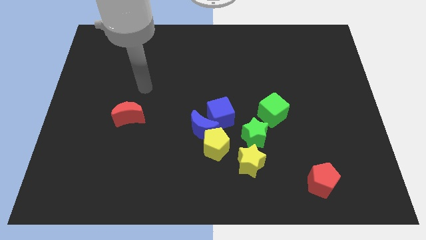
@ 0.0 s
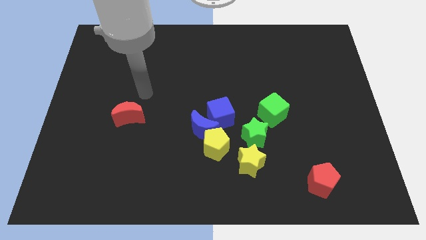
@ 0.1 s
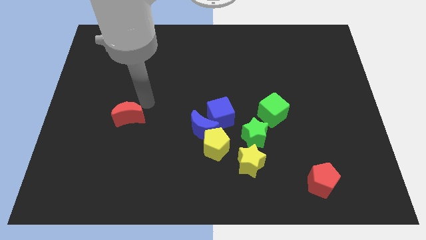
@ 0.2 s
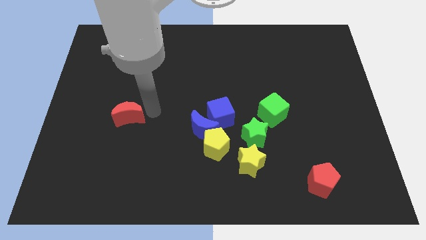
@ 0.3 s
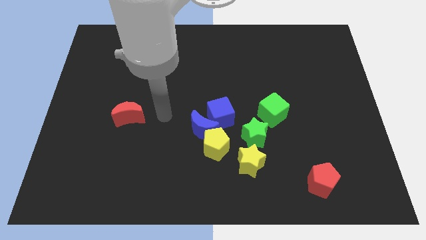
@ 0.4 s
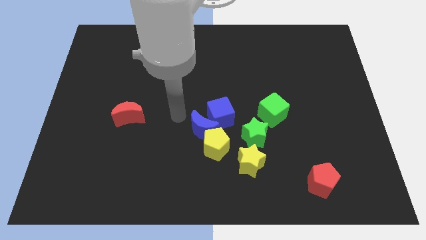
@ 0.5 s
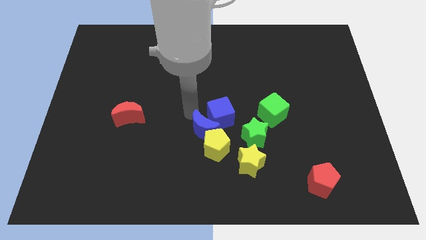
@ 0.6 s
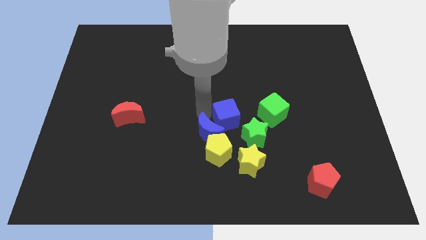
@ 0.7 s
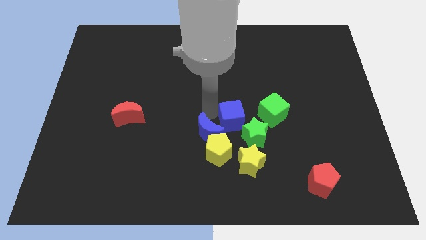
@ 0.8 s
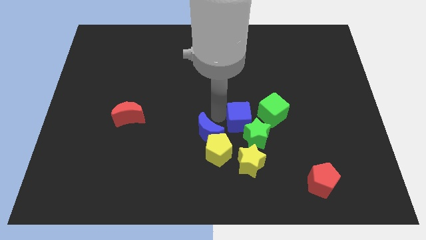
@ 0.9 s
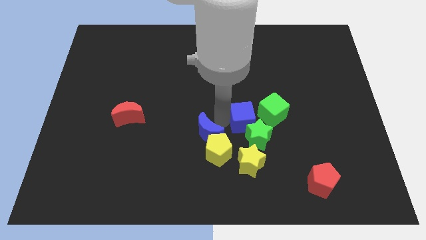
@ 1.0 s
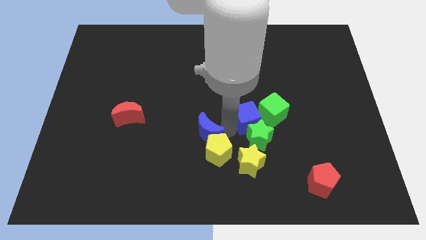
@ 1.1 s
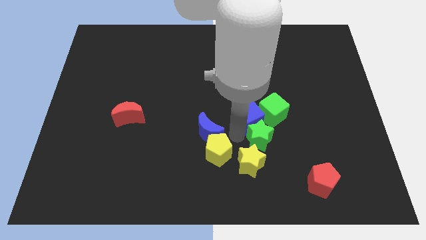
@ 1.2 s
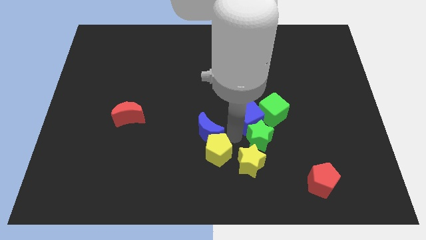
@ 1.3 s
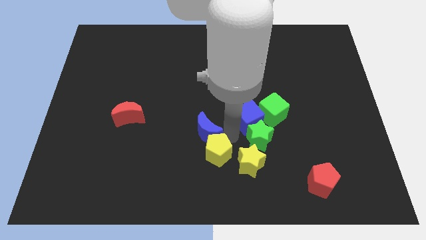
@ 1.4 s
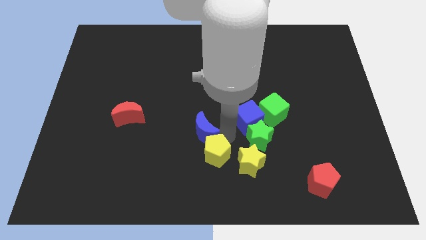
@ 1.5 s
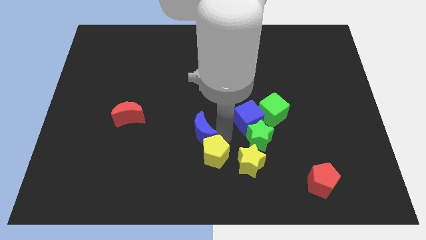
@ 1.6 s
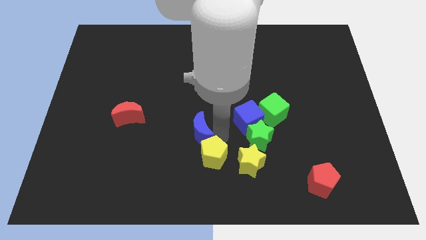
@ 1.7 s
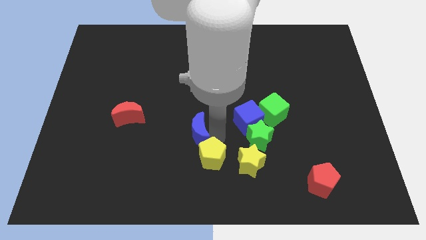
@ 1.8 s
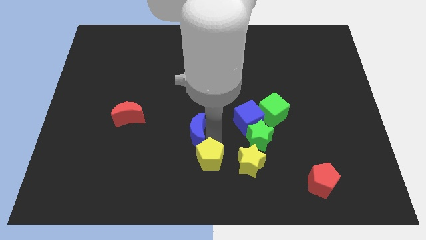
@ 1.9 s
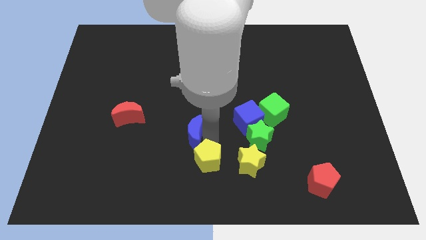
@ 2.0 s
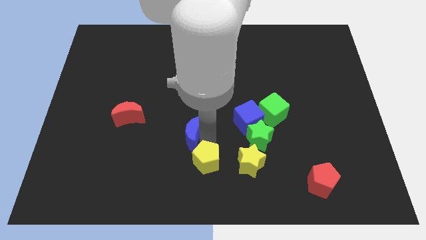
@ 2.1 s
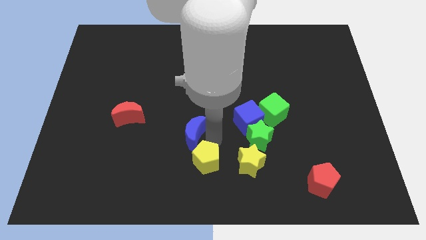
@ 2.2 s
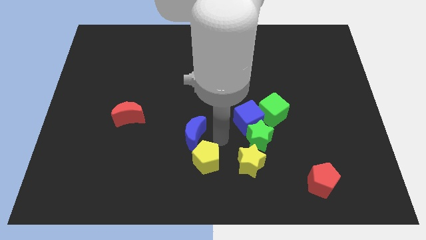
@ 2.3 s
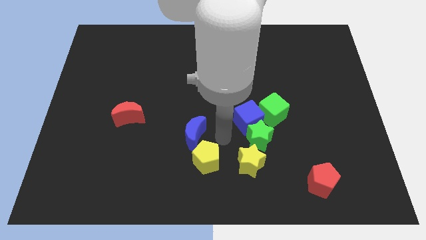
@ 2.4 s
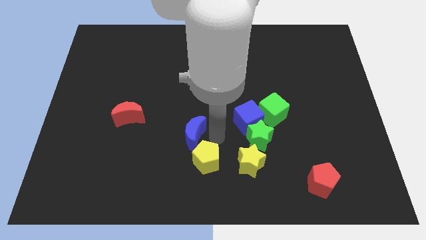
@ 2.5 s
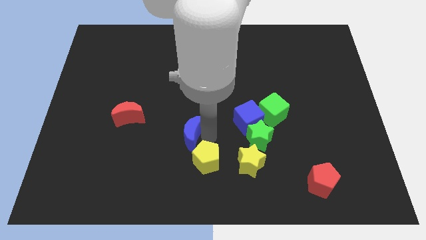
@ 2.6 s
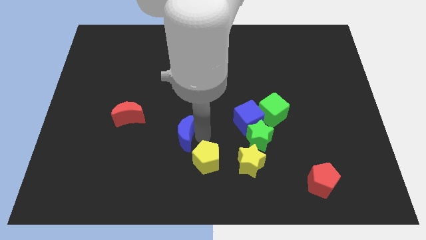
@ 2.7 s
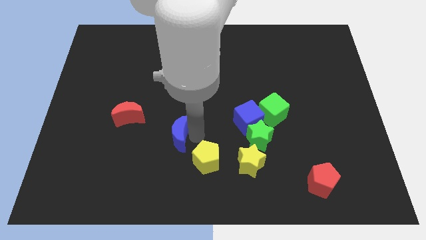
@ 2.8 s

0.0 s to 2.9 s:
separate the blue moon from the yellow pentagon and blue cube

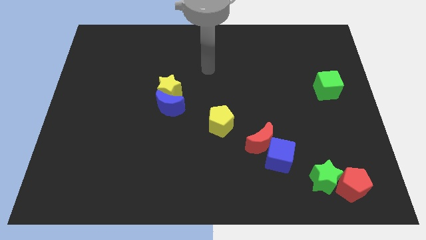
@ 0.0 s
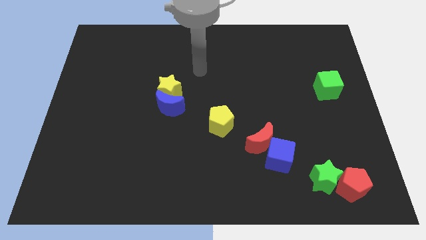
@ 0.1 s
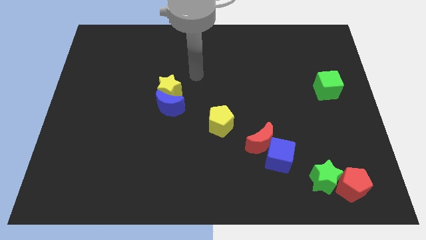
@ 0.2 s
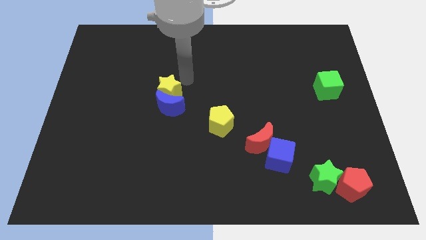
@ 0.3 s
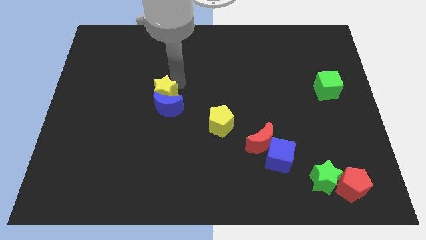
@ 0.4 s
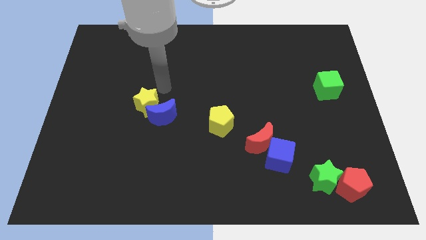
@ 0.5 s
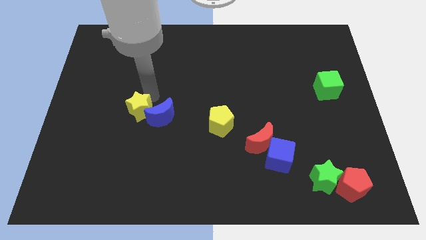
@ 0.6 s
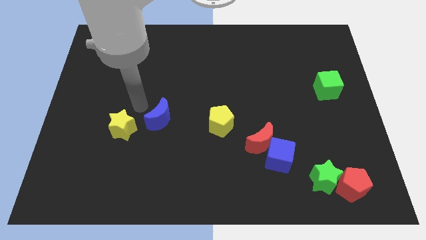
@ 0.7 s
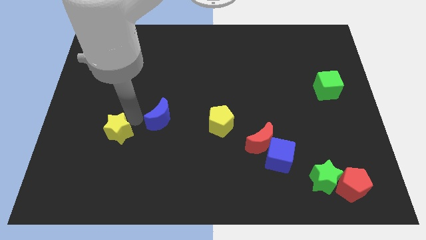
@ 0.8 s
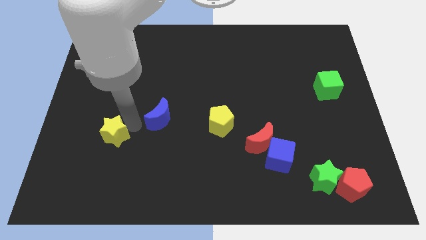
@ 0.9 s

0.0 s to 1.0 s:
separate the blue moon from the yellow star

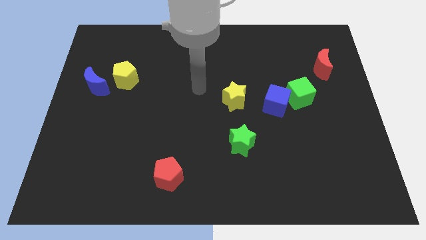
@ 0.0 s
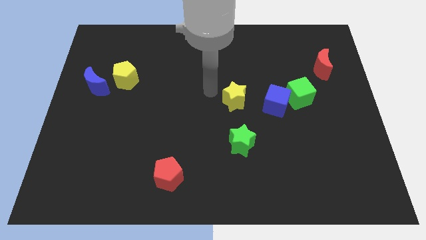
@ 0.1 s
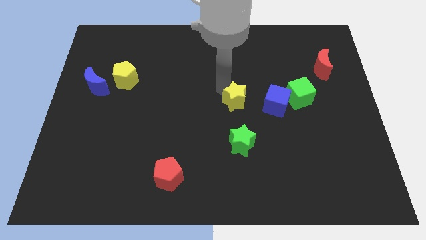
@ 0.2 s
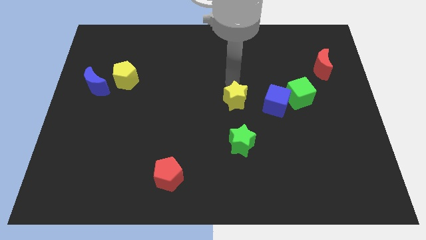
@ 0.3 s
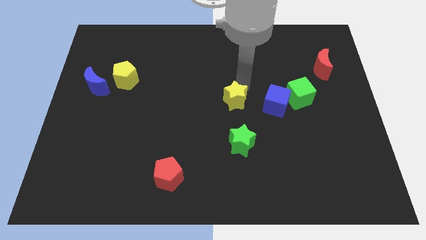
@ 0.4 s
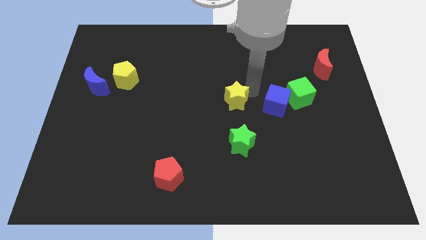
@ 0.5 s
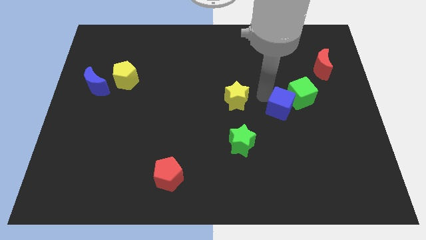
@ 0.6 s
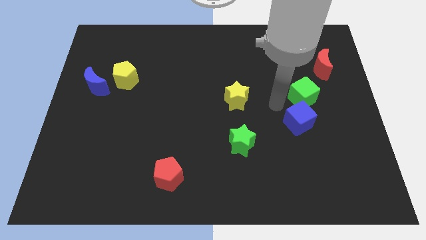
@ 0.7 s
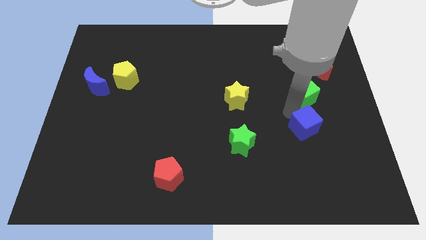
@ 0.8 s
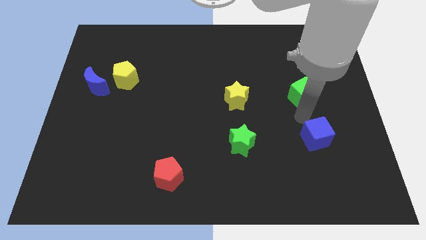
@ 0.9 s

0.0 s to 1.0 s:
pull the green cube apart from the blue cube

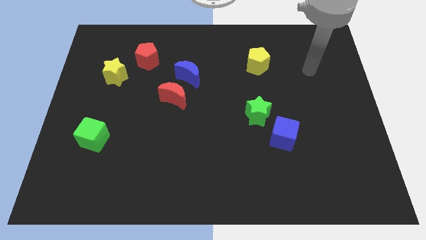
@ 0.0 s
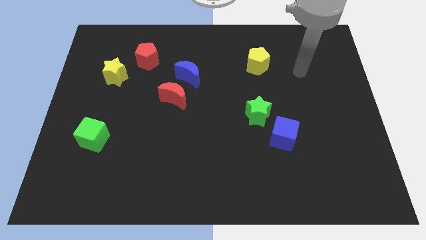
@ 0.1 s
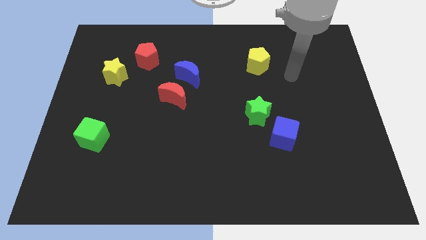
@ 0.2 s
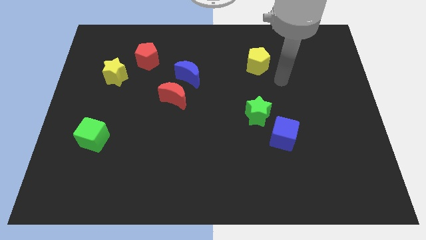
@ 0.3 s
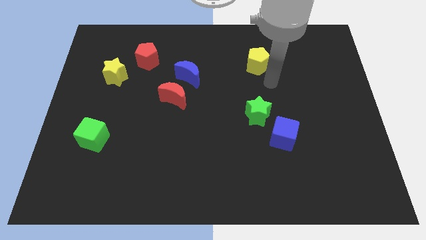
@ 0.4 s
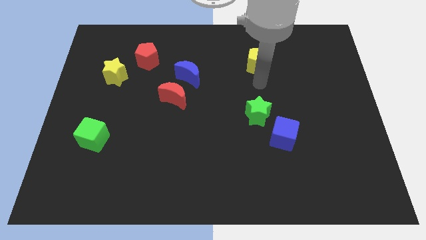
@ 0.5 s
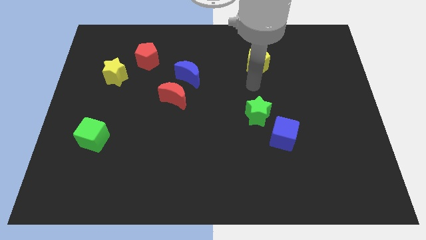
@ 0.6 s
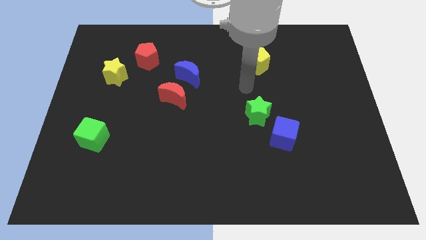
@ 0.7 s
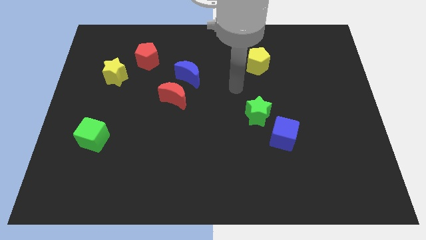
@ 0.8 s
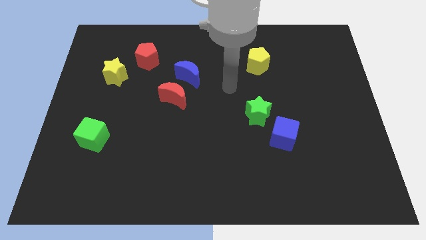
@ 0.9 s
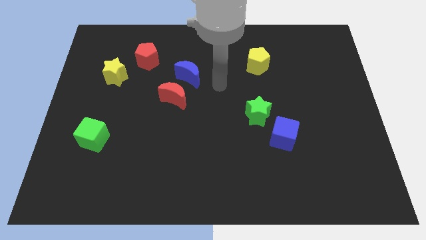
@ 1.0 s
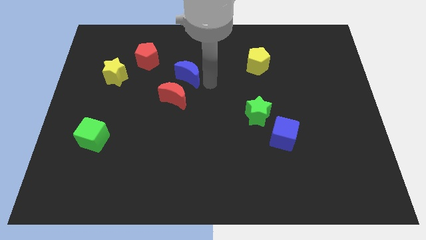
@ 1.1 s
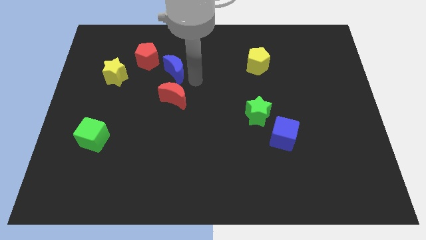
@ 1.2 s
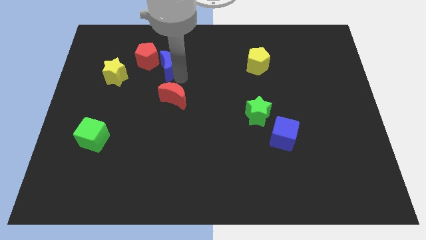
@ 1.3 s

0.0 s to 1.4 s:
separate the red moon from the blue moon

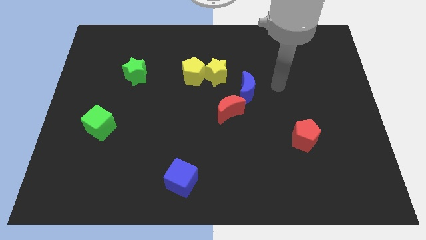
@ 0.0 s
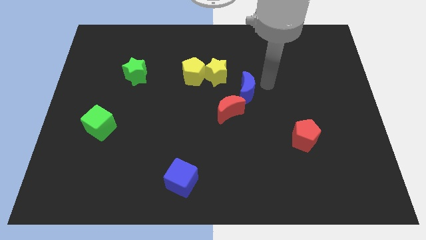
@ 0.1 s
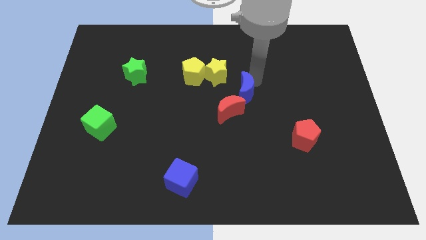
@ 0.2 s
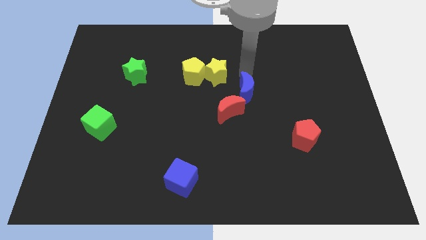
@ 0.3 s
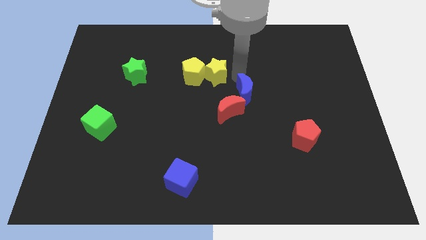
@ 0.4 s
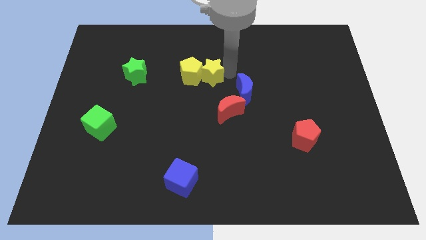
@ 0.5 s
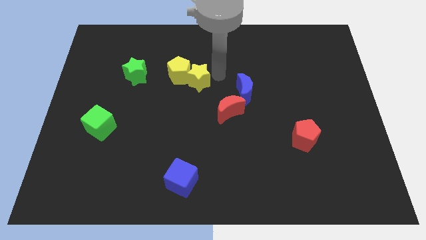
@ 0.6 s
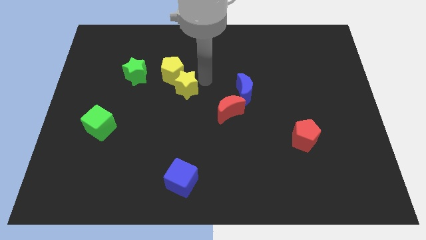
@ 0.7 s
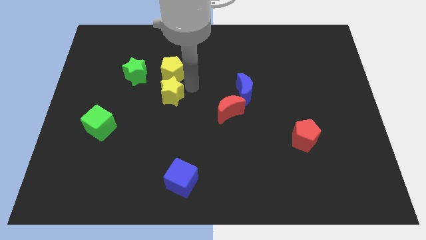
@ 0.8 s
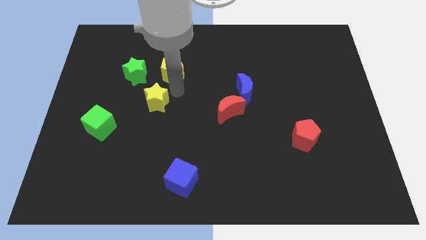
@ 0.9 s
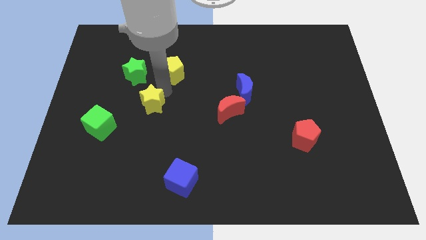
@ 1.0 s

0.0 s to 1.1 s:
move the yellow pentagon away from the yellow star

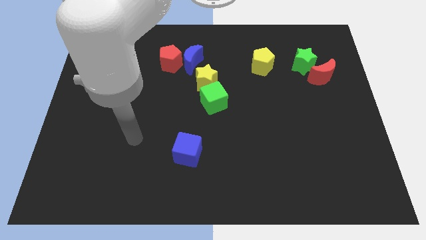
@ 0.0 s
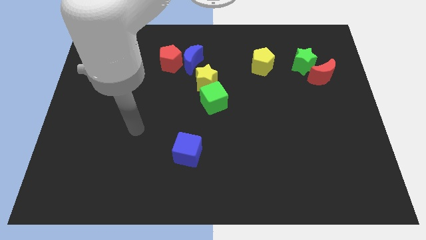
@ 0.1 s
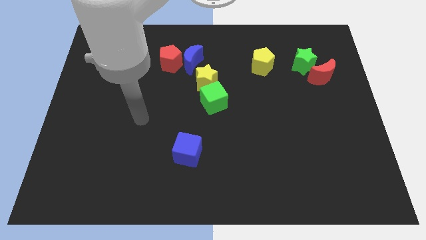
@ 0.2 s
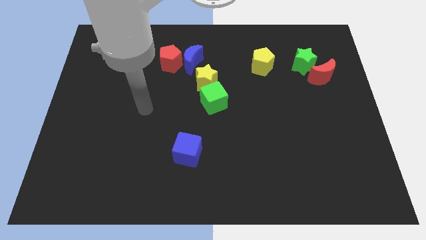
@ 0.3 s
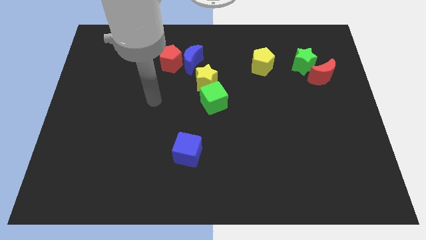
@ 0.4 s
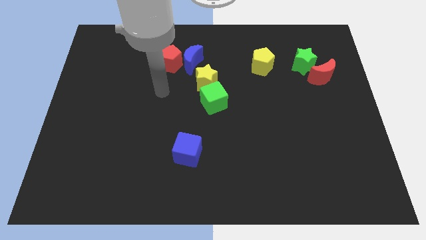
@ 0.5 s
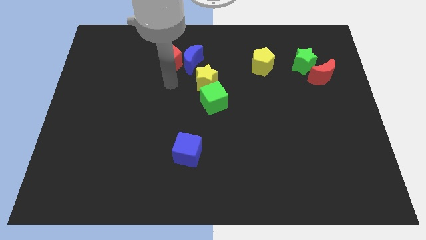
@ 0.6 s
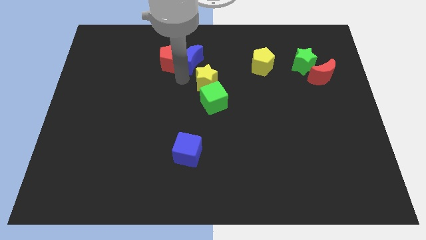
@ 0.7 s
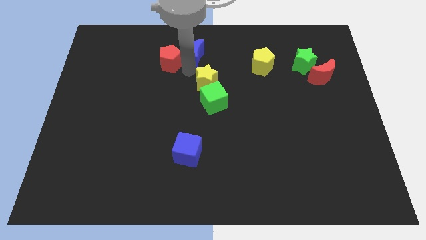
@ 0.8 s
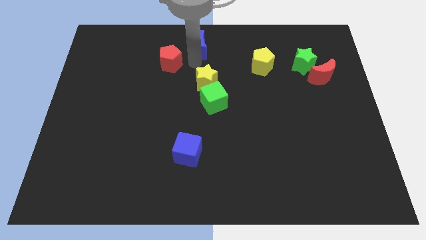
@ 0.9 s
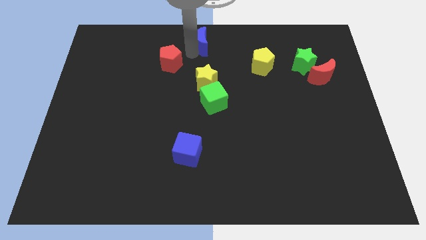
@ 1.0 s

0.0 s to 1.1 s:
move the red pentagon away from the blue moon

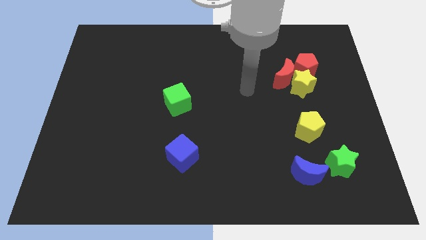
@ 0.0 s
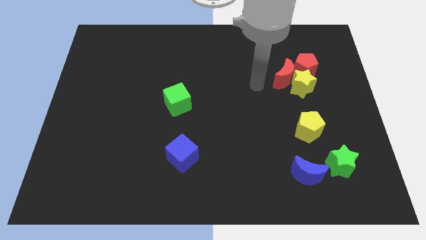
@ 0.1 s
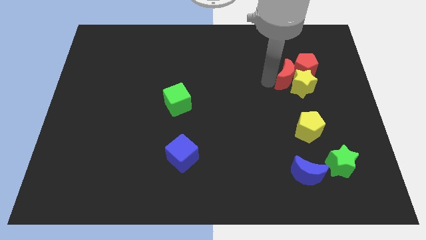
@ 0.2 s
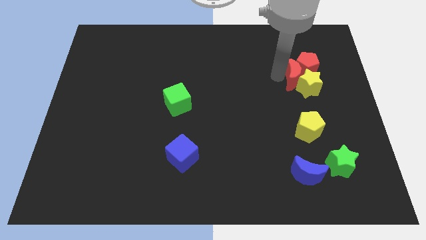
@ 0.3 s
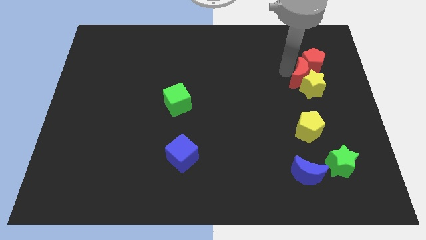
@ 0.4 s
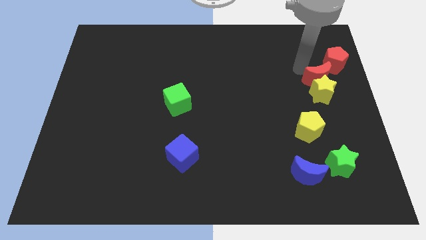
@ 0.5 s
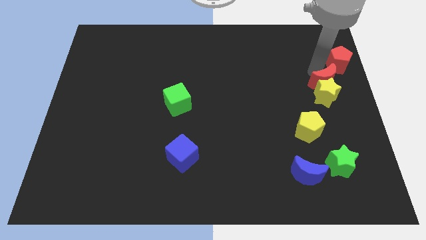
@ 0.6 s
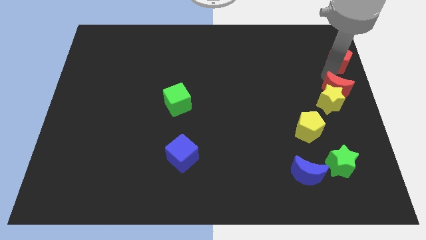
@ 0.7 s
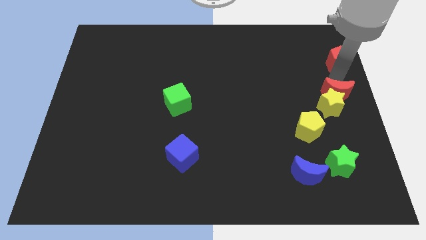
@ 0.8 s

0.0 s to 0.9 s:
move the yellow star away from the red moon and red pentagon

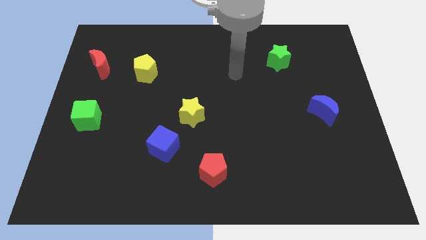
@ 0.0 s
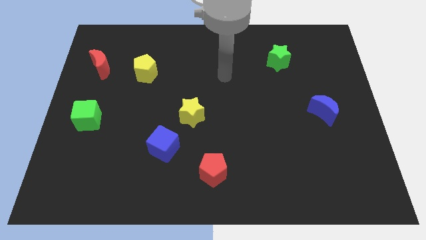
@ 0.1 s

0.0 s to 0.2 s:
move the blue cube away from the yellow star
